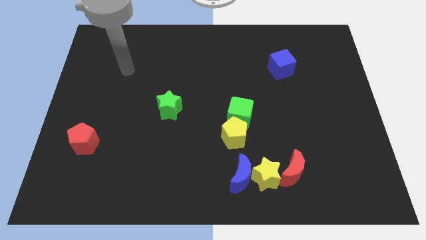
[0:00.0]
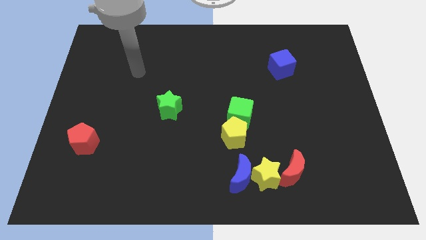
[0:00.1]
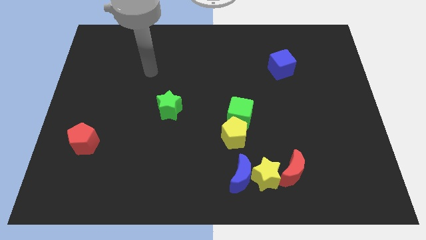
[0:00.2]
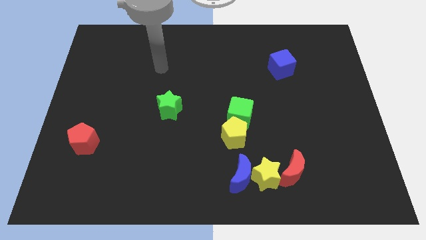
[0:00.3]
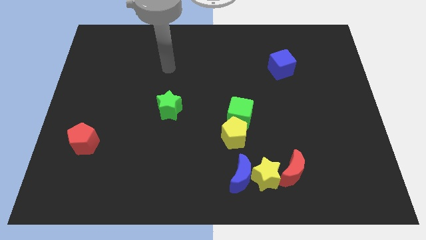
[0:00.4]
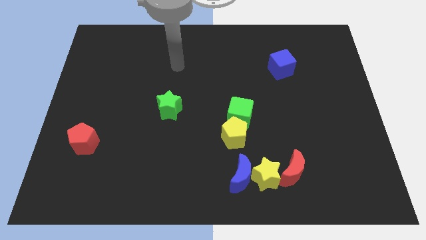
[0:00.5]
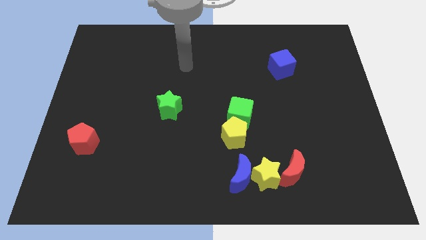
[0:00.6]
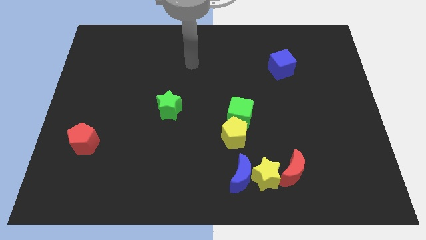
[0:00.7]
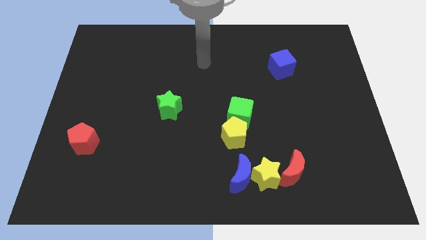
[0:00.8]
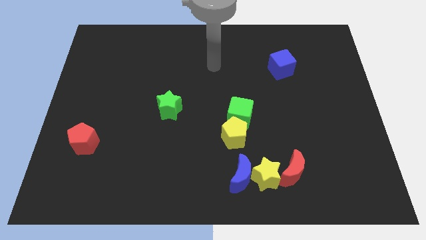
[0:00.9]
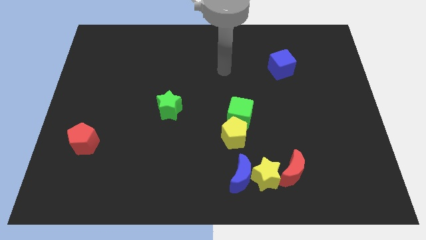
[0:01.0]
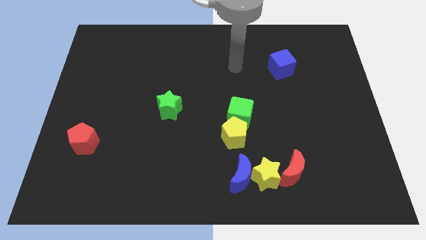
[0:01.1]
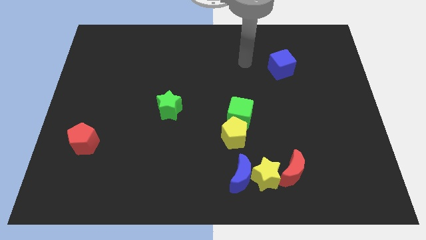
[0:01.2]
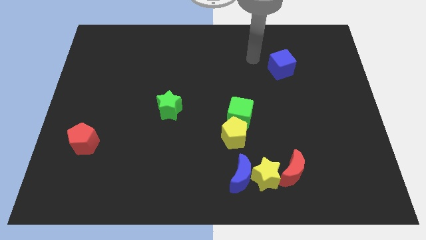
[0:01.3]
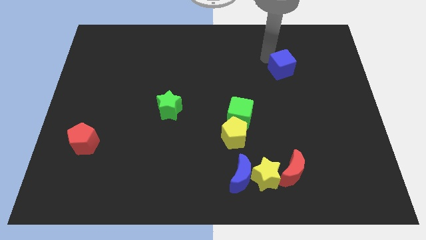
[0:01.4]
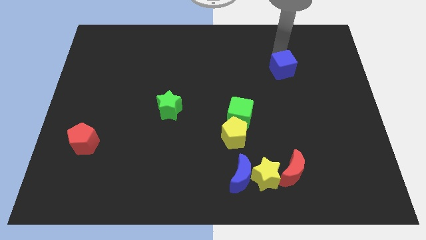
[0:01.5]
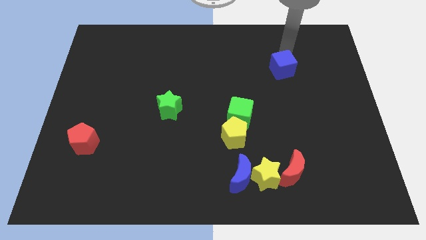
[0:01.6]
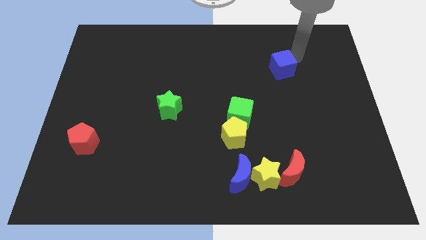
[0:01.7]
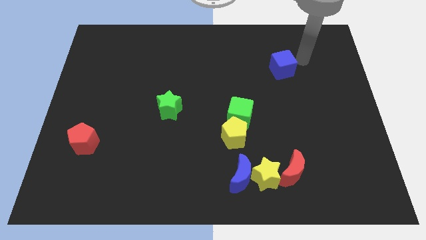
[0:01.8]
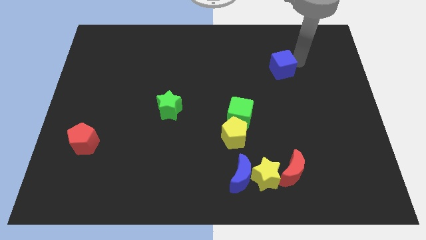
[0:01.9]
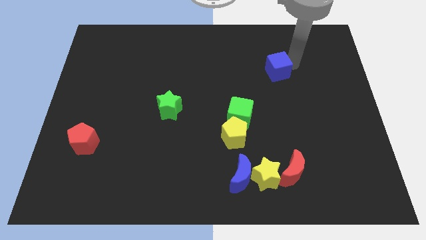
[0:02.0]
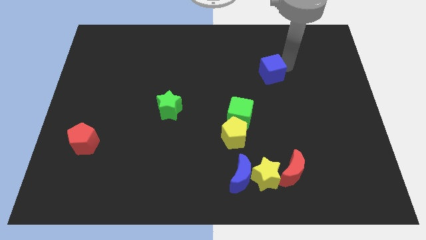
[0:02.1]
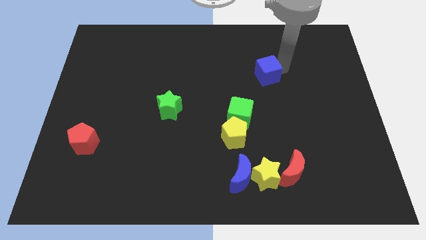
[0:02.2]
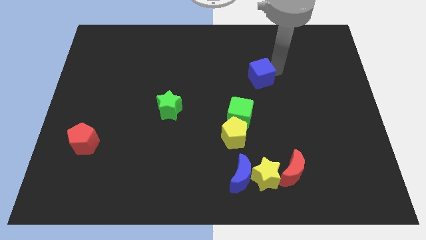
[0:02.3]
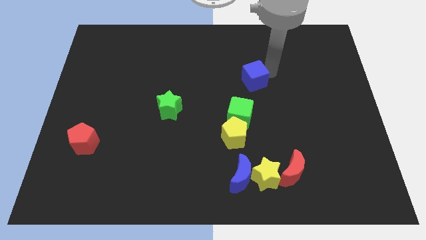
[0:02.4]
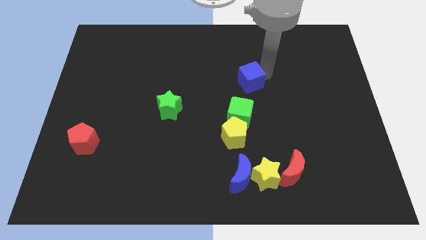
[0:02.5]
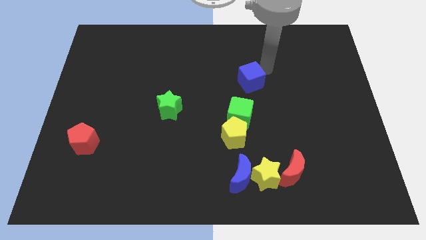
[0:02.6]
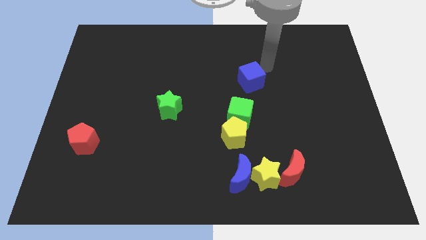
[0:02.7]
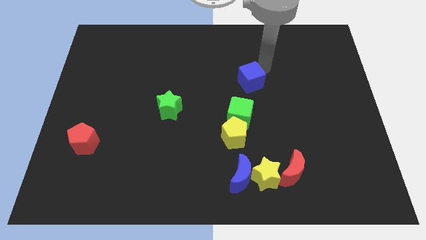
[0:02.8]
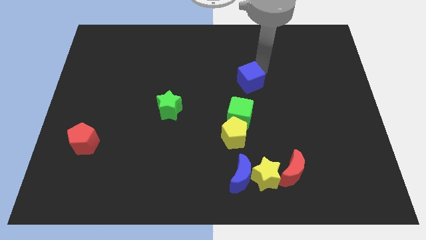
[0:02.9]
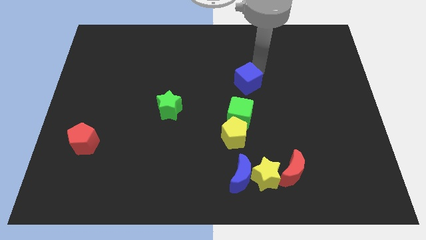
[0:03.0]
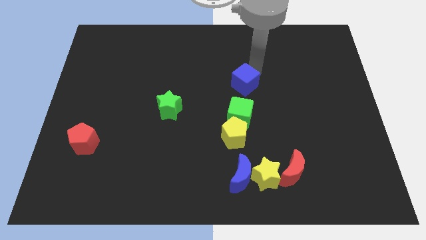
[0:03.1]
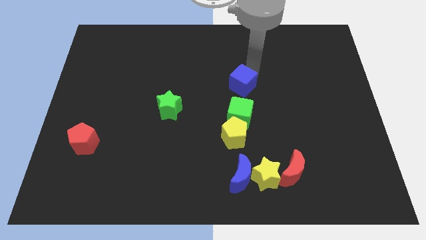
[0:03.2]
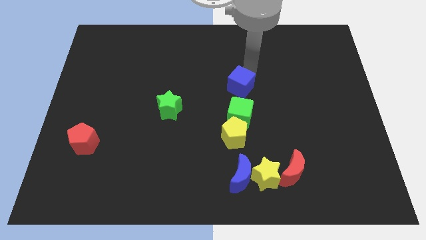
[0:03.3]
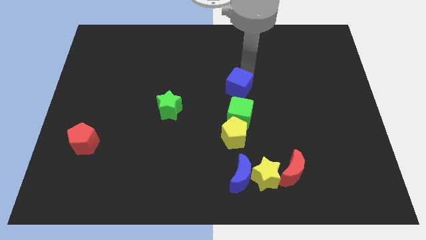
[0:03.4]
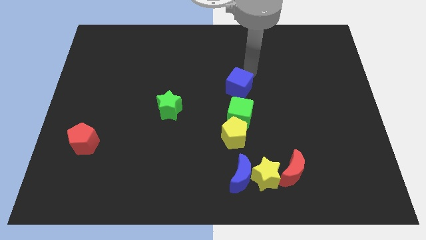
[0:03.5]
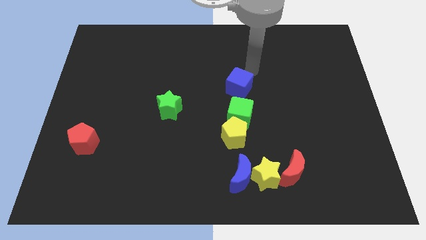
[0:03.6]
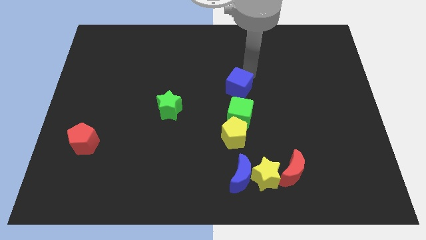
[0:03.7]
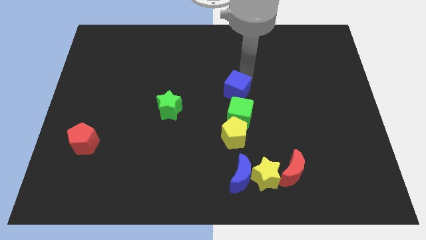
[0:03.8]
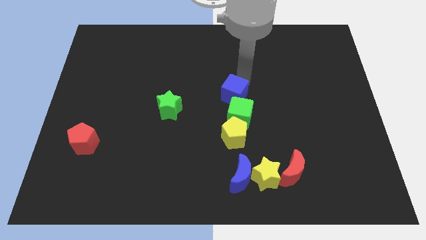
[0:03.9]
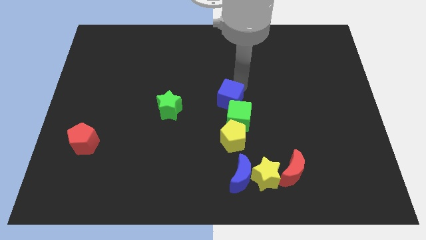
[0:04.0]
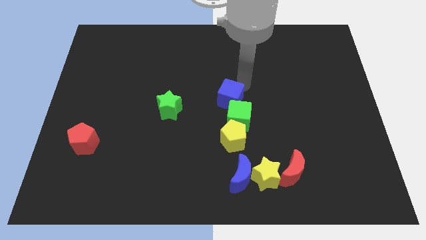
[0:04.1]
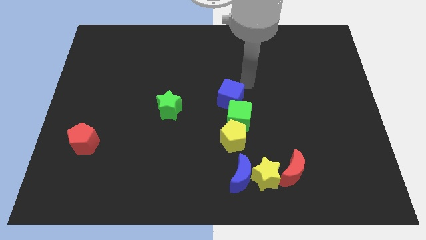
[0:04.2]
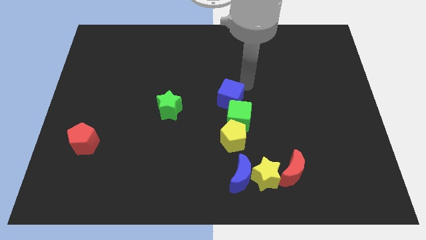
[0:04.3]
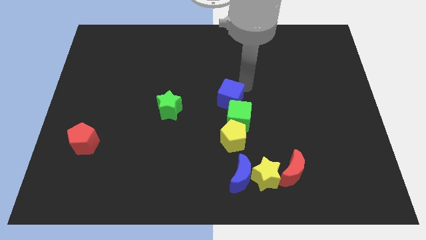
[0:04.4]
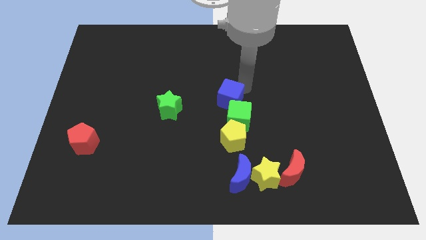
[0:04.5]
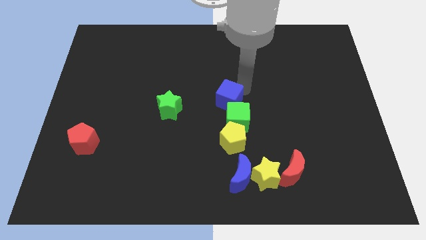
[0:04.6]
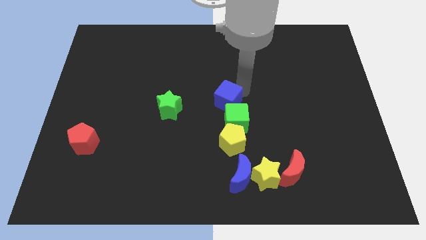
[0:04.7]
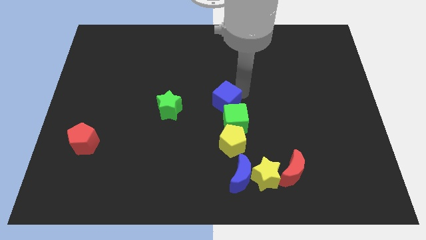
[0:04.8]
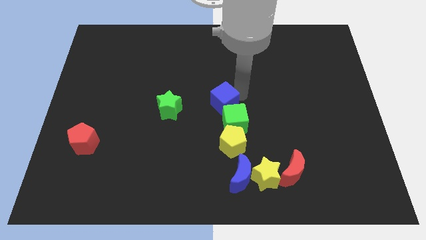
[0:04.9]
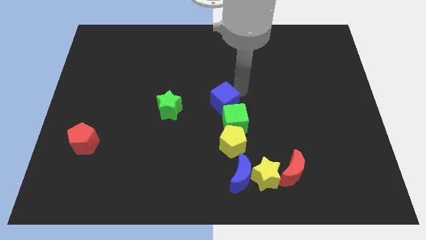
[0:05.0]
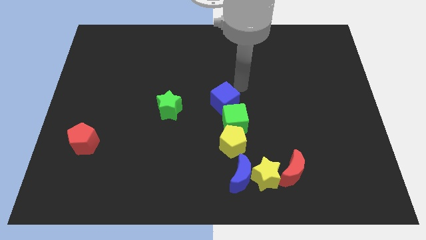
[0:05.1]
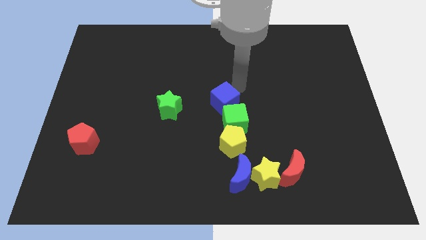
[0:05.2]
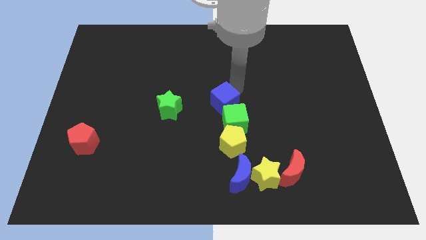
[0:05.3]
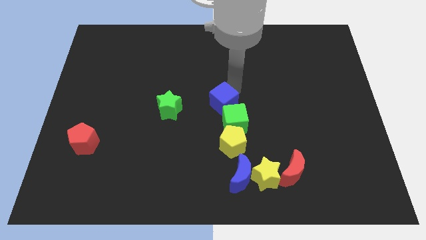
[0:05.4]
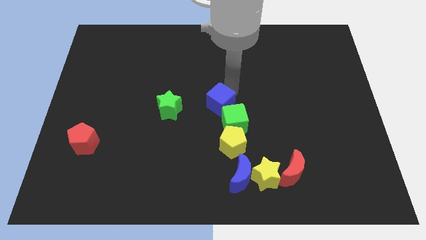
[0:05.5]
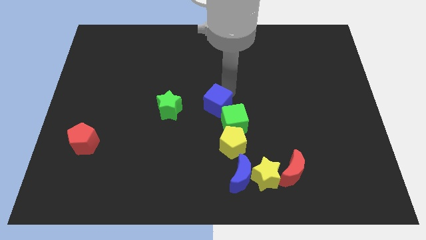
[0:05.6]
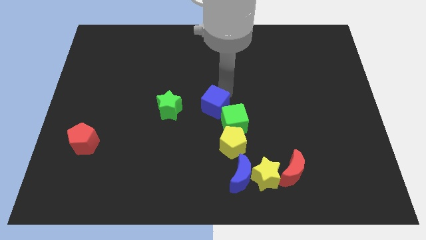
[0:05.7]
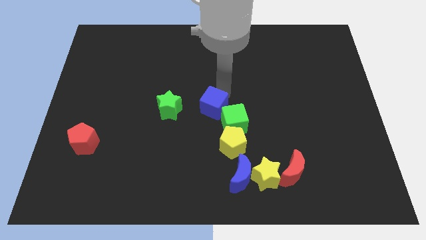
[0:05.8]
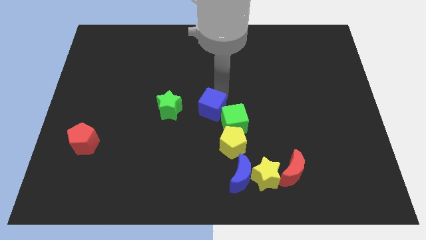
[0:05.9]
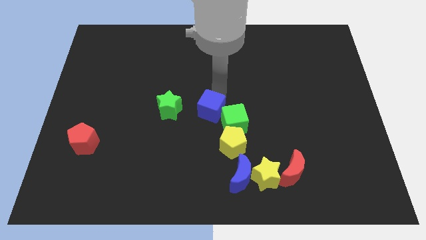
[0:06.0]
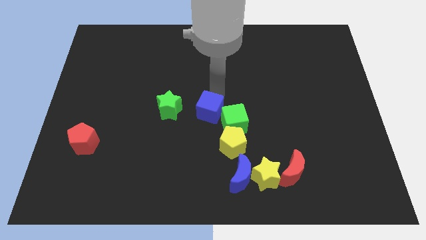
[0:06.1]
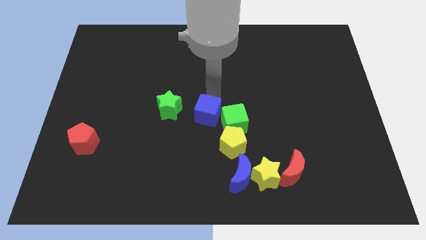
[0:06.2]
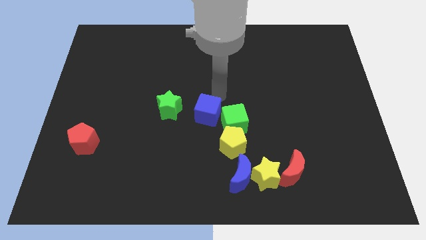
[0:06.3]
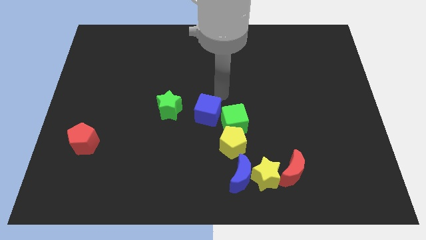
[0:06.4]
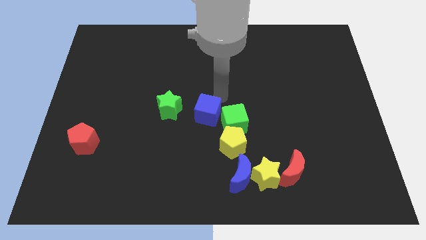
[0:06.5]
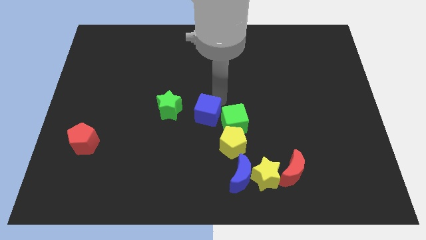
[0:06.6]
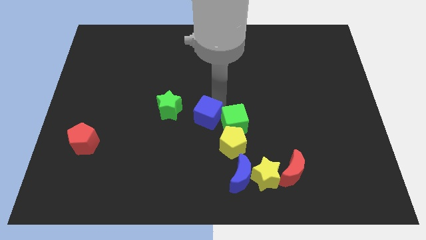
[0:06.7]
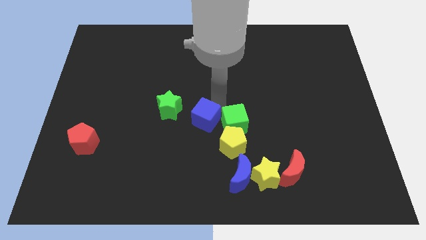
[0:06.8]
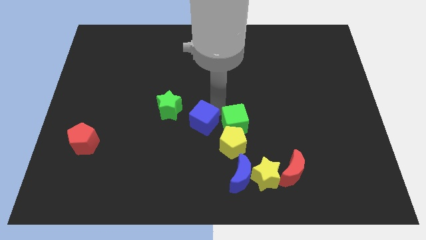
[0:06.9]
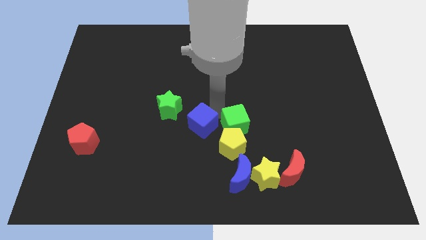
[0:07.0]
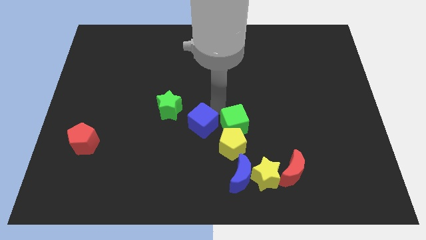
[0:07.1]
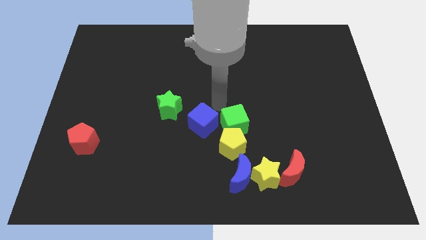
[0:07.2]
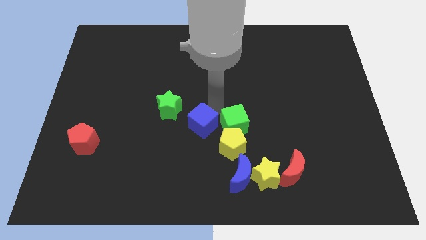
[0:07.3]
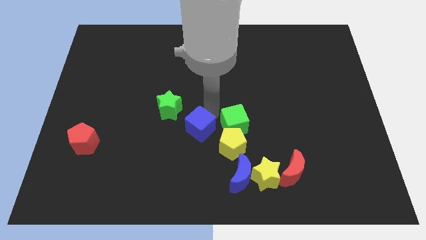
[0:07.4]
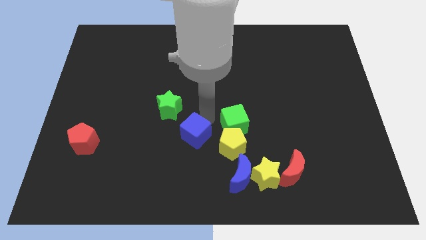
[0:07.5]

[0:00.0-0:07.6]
move the blue cube to the left of the yellow pentagon
